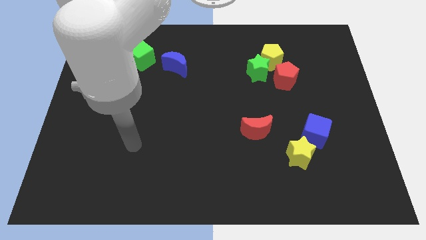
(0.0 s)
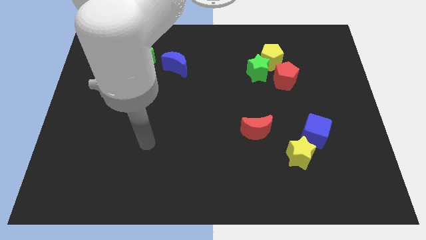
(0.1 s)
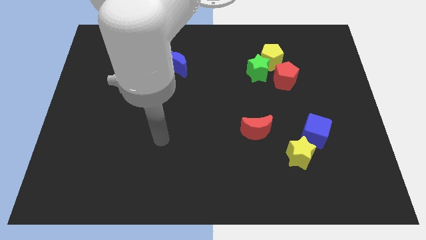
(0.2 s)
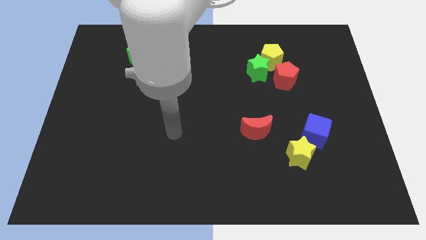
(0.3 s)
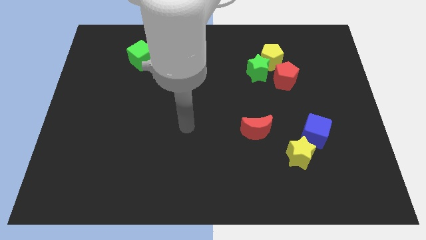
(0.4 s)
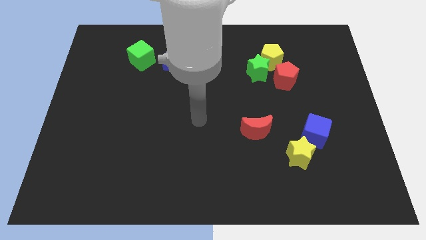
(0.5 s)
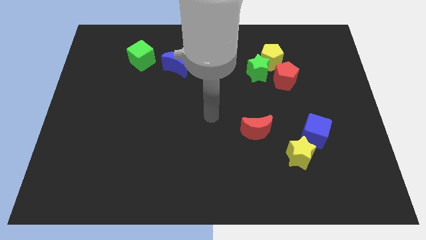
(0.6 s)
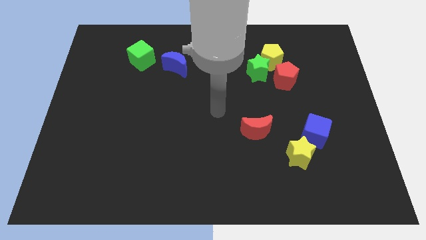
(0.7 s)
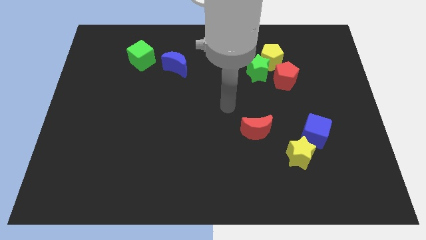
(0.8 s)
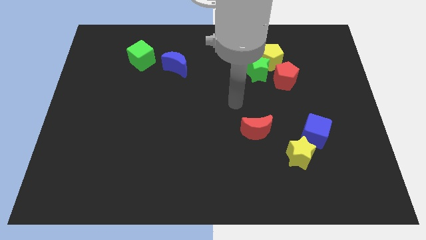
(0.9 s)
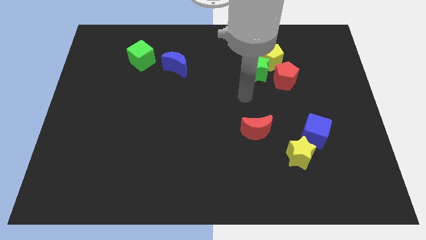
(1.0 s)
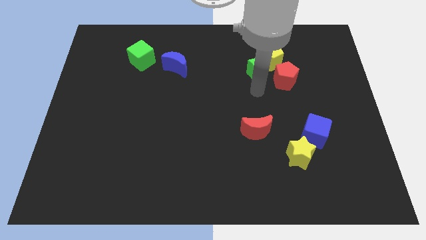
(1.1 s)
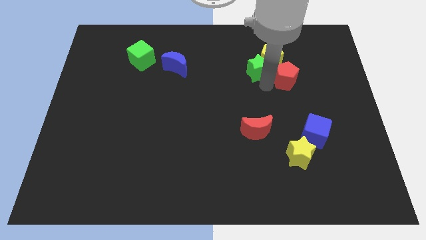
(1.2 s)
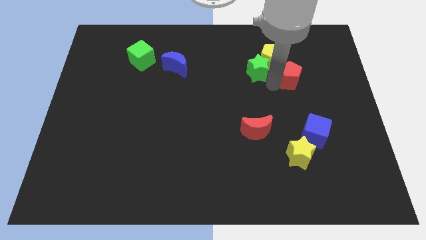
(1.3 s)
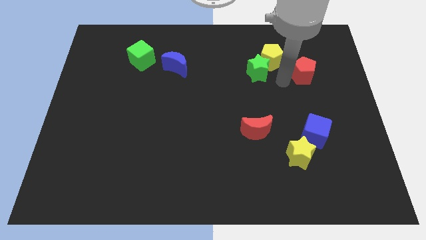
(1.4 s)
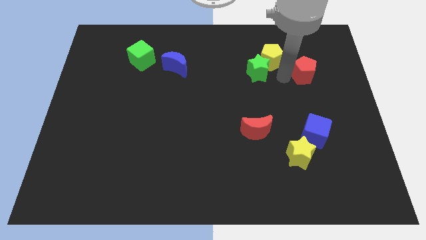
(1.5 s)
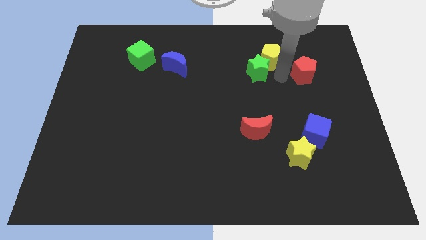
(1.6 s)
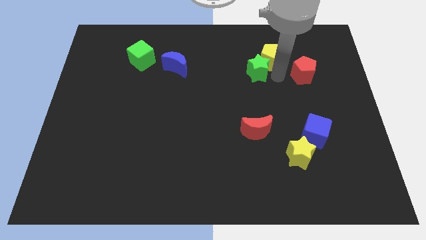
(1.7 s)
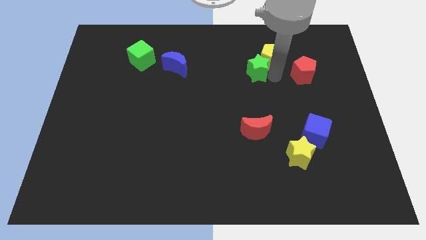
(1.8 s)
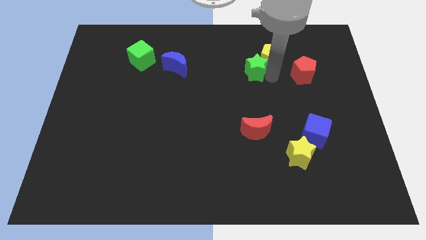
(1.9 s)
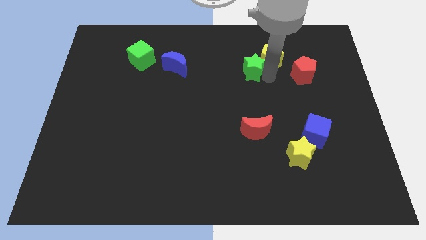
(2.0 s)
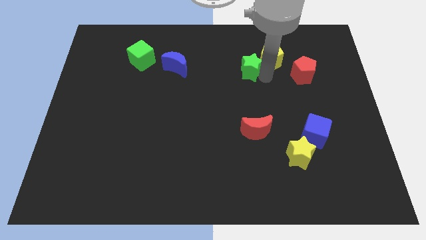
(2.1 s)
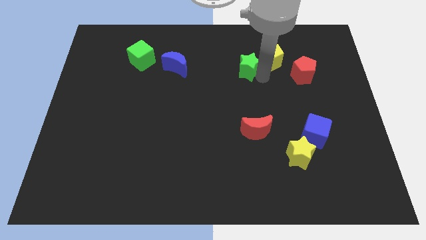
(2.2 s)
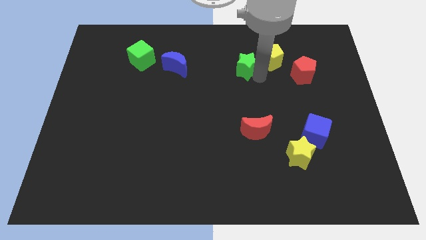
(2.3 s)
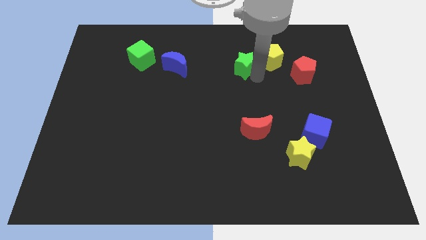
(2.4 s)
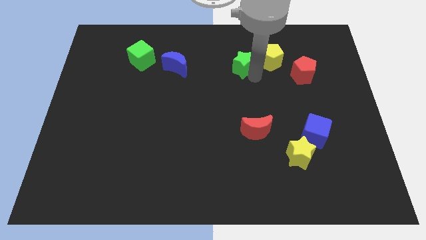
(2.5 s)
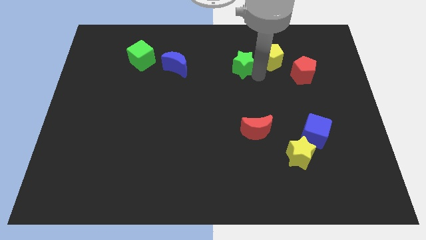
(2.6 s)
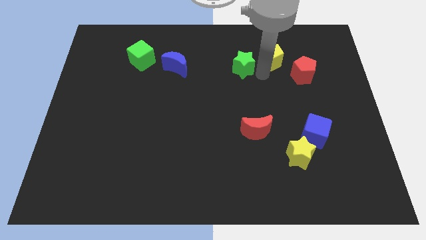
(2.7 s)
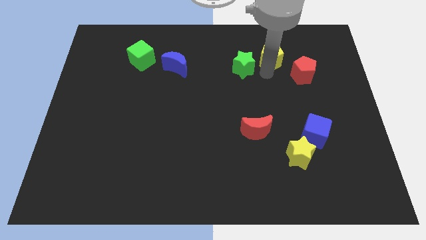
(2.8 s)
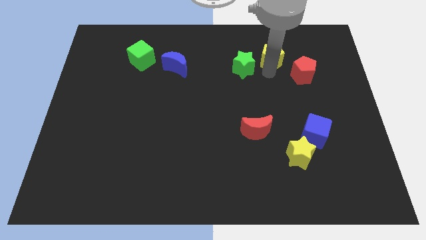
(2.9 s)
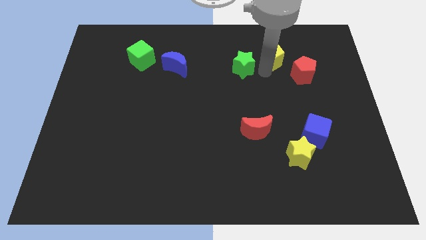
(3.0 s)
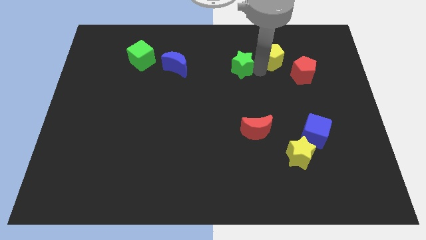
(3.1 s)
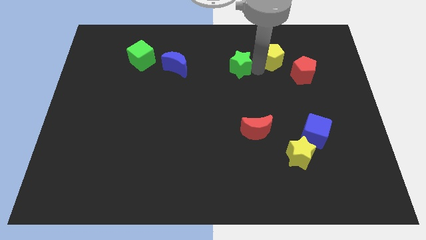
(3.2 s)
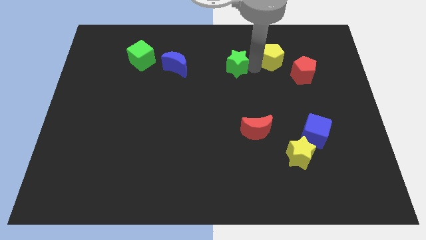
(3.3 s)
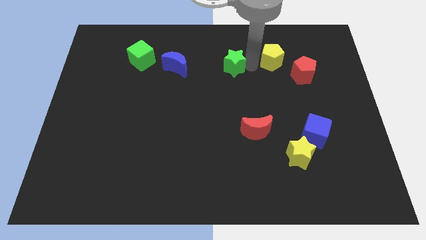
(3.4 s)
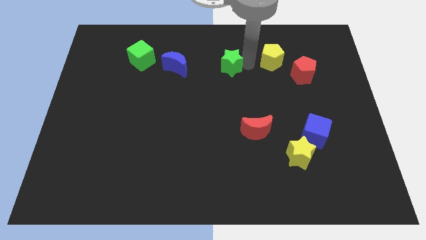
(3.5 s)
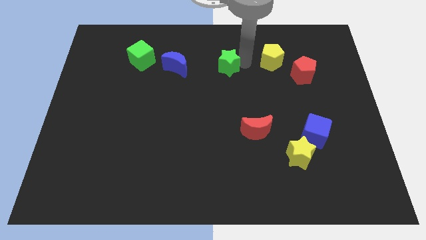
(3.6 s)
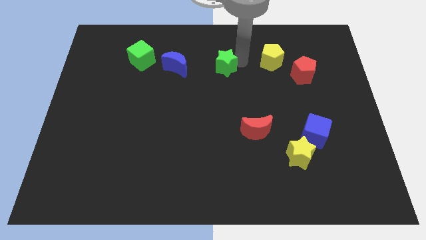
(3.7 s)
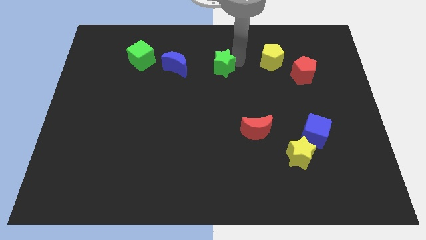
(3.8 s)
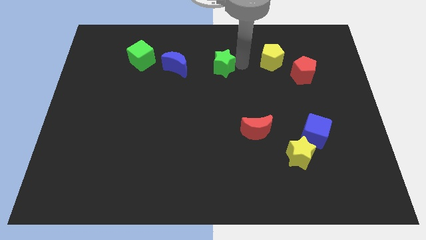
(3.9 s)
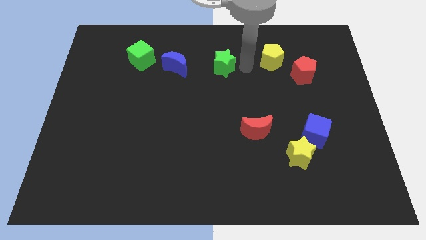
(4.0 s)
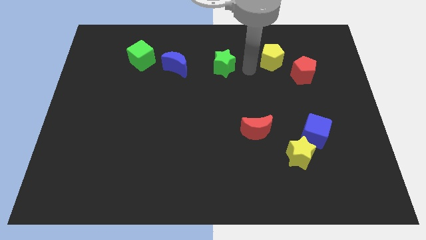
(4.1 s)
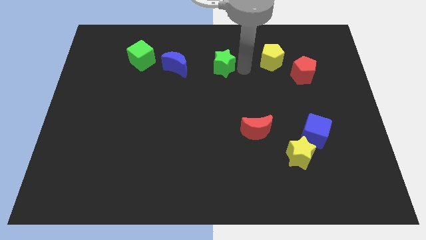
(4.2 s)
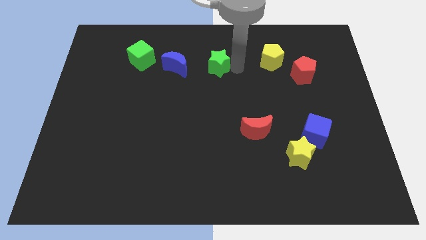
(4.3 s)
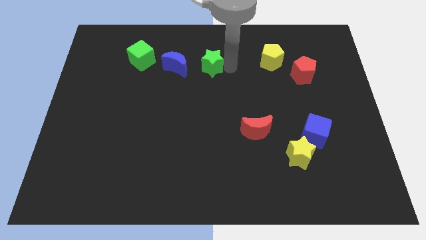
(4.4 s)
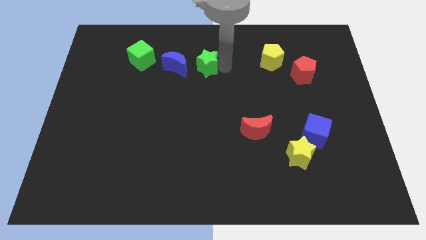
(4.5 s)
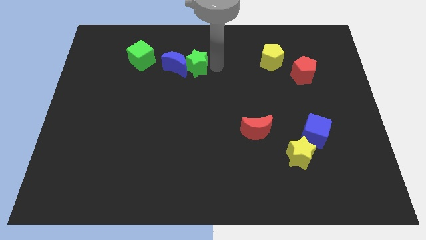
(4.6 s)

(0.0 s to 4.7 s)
put the green star to the blue moon

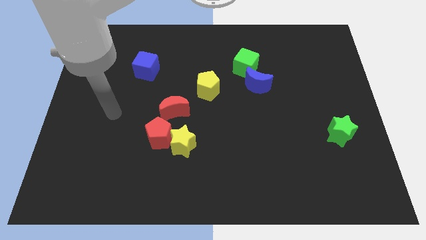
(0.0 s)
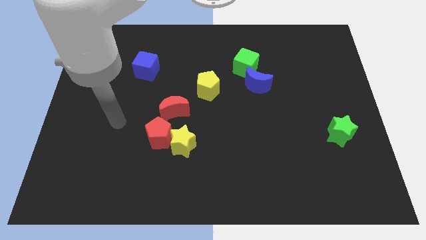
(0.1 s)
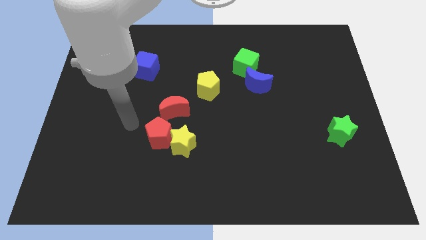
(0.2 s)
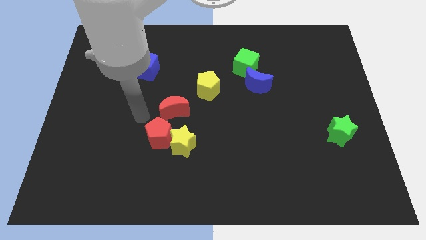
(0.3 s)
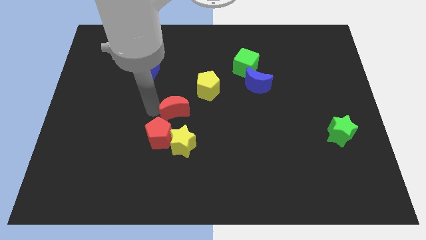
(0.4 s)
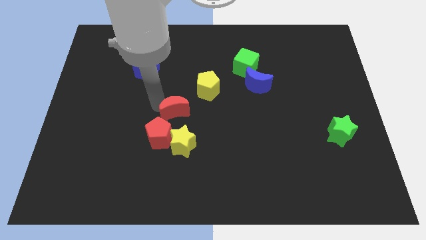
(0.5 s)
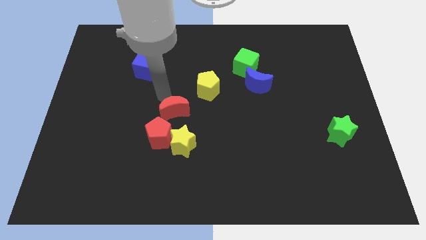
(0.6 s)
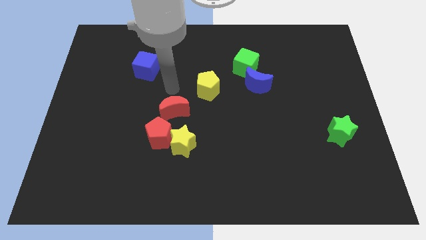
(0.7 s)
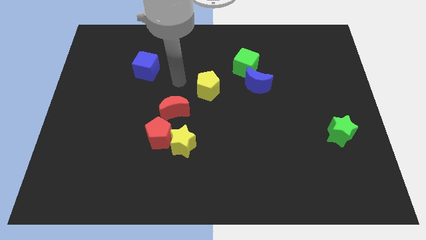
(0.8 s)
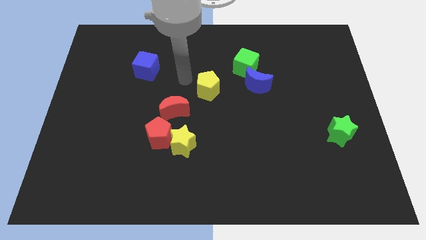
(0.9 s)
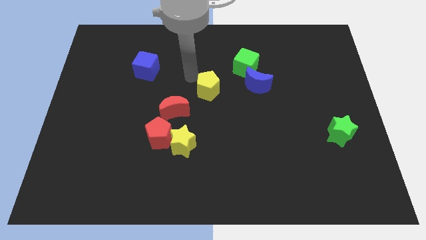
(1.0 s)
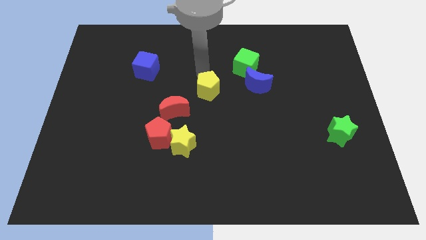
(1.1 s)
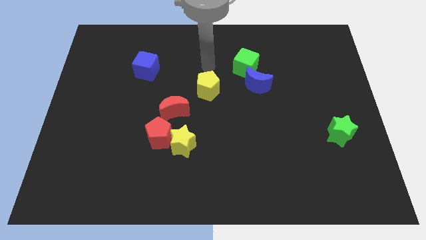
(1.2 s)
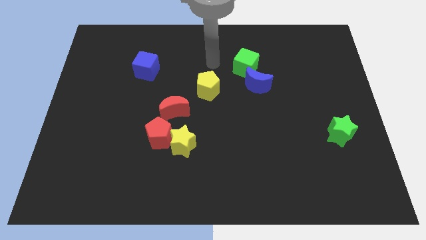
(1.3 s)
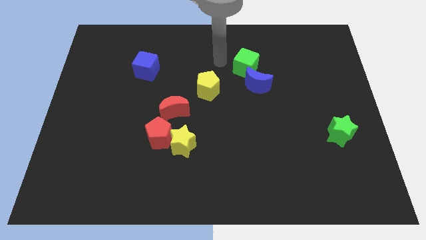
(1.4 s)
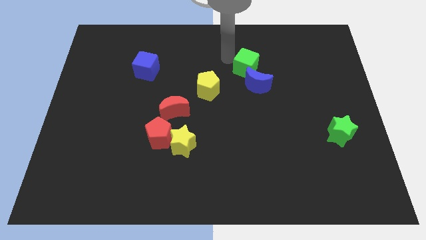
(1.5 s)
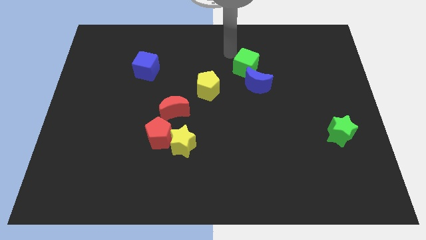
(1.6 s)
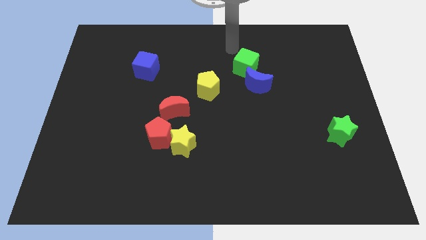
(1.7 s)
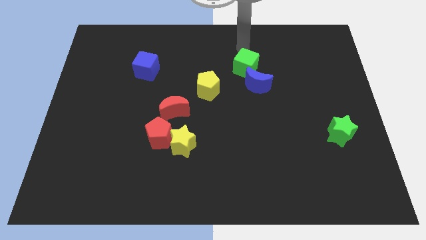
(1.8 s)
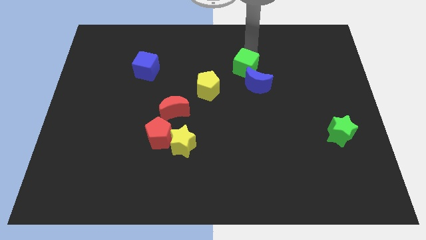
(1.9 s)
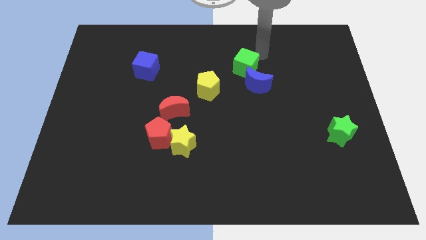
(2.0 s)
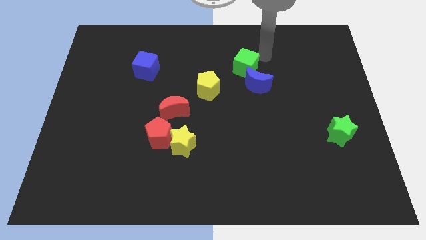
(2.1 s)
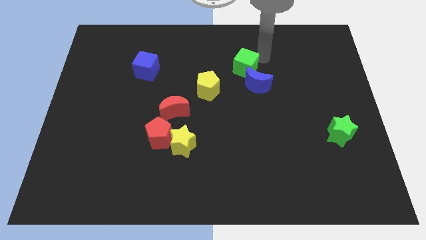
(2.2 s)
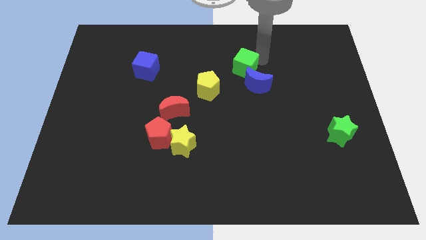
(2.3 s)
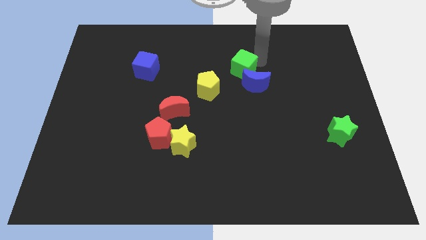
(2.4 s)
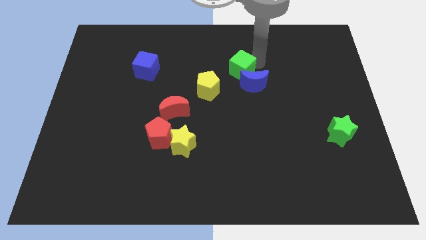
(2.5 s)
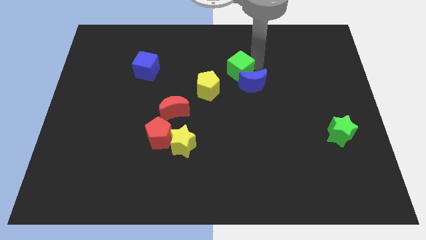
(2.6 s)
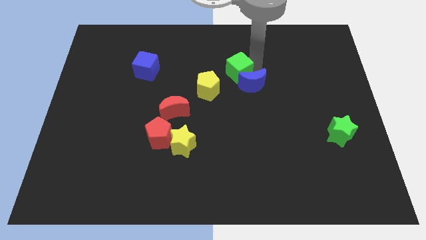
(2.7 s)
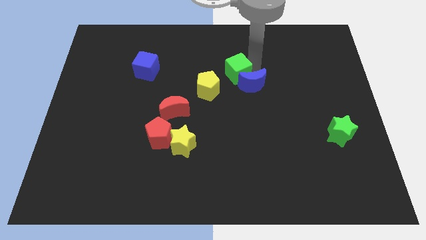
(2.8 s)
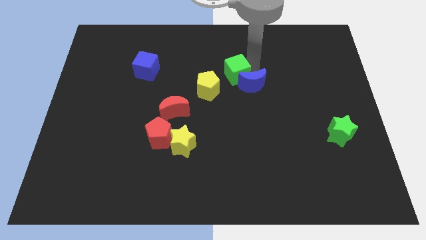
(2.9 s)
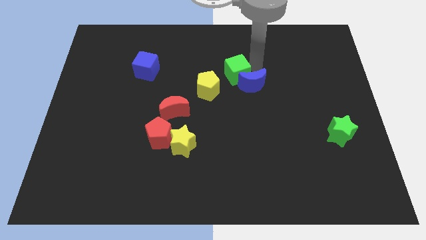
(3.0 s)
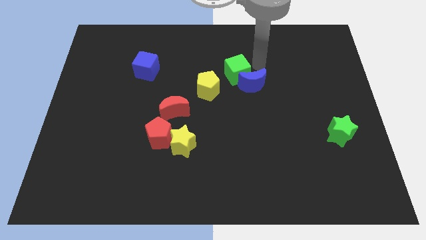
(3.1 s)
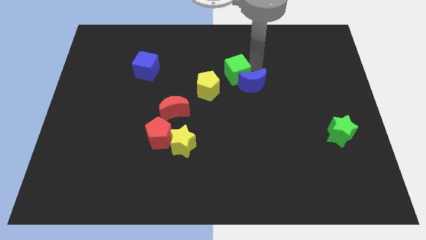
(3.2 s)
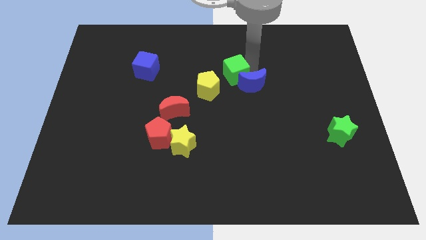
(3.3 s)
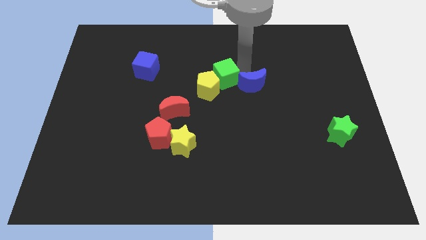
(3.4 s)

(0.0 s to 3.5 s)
push the green cube next to the yellow pentagon
